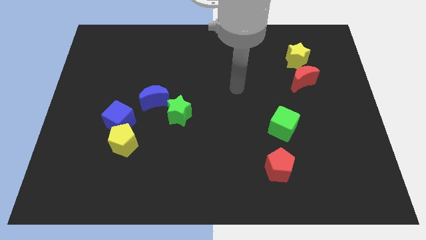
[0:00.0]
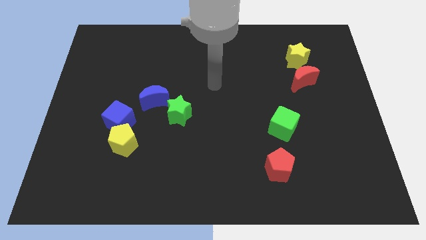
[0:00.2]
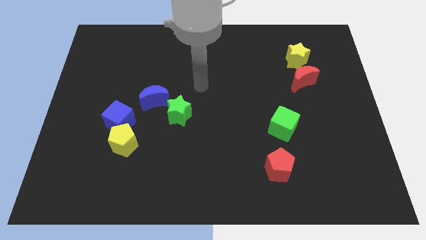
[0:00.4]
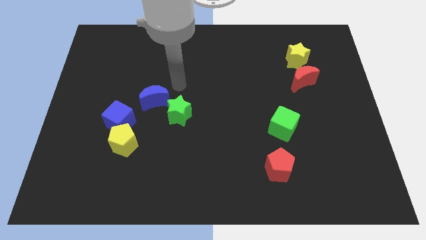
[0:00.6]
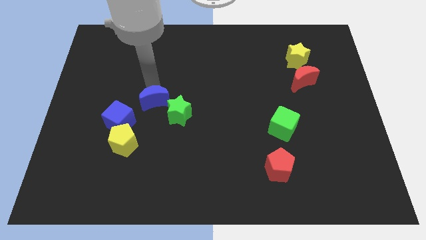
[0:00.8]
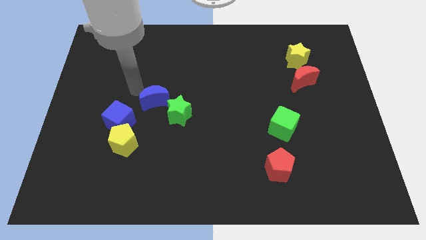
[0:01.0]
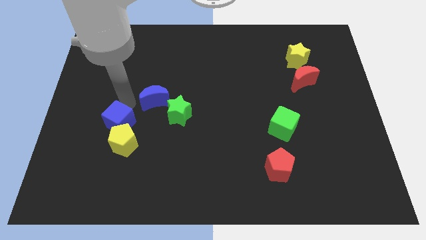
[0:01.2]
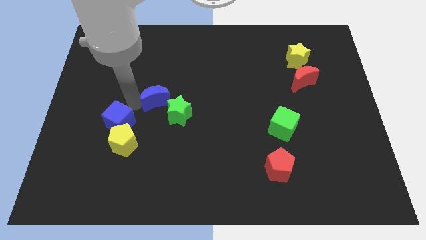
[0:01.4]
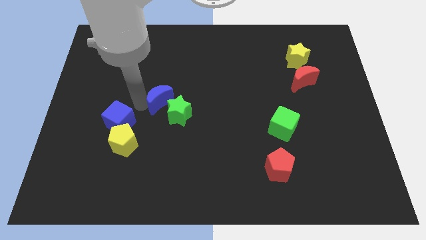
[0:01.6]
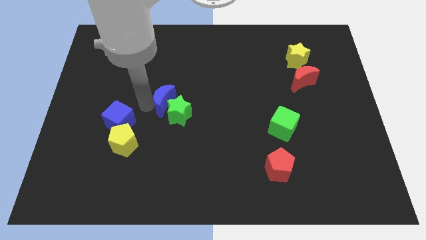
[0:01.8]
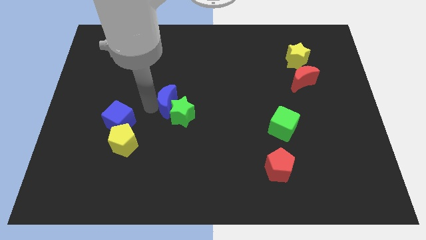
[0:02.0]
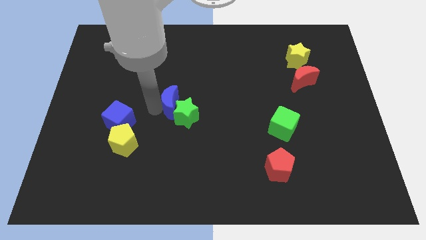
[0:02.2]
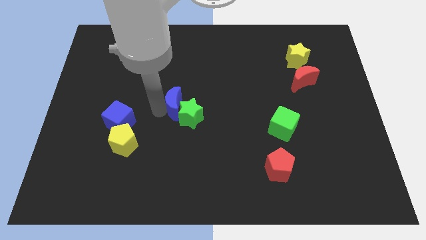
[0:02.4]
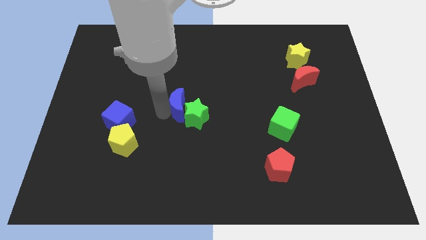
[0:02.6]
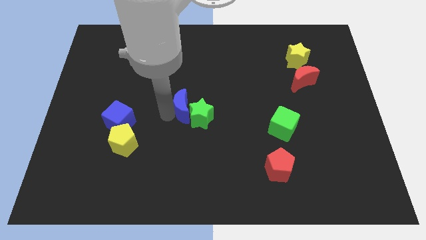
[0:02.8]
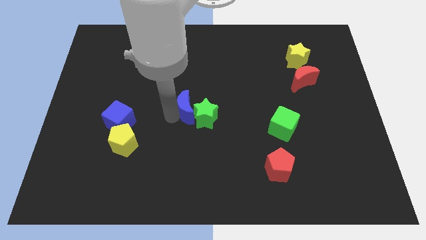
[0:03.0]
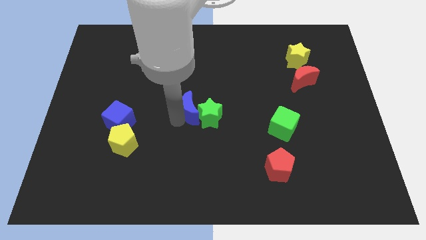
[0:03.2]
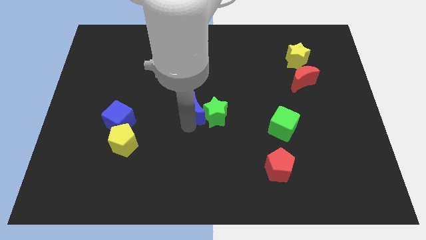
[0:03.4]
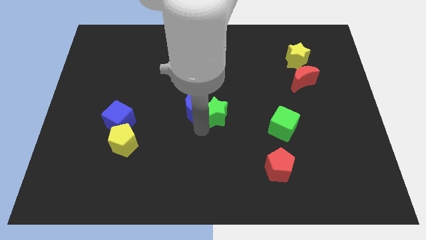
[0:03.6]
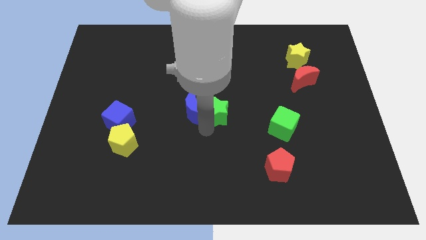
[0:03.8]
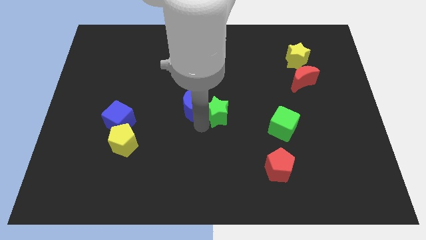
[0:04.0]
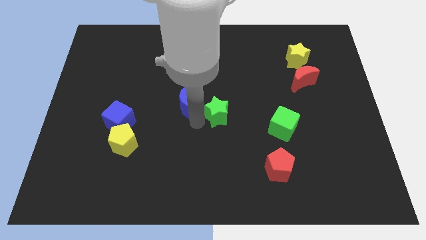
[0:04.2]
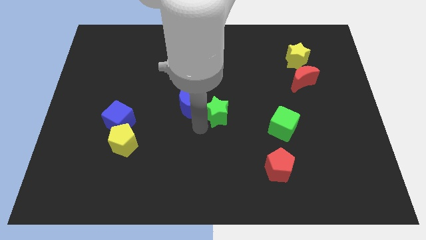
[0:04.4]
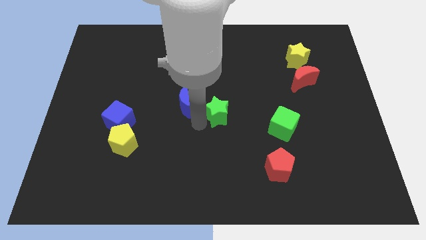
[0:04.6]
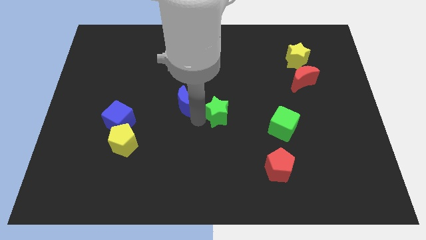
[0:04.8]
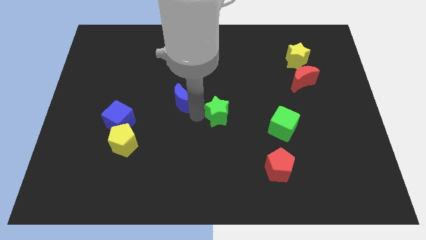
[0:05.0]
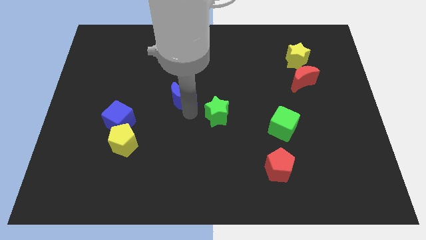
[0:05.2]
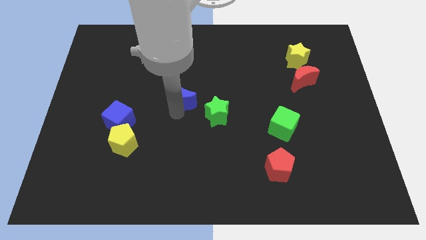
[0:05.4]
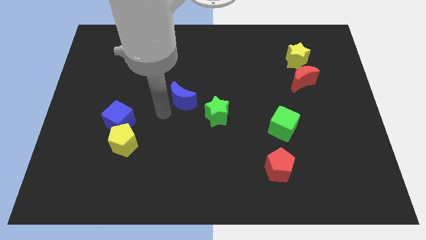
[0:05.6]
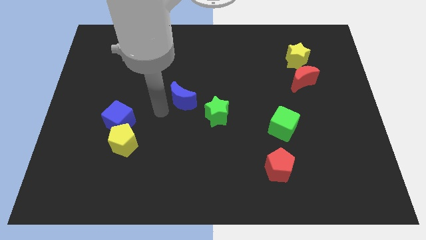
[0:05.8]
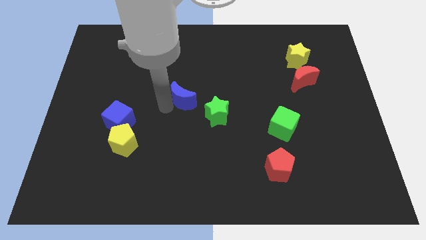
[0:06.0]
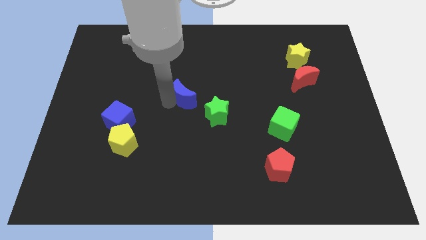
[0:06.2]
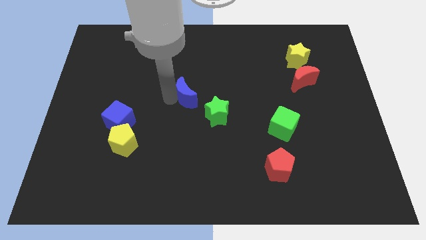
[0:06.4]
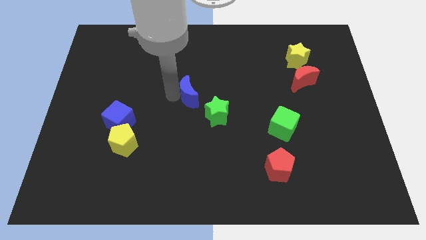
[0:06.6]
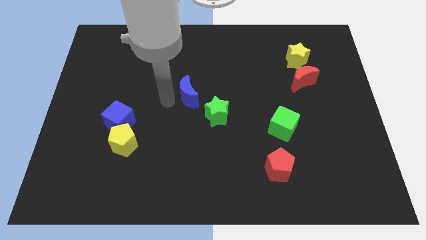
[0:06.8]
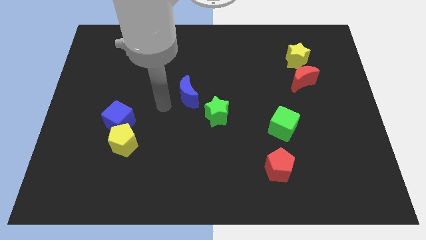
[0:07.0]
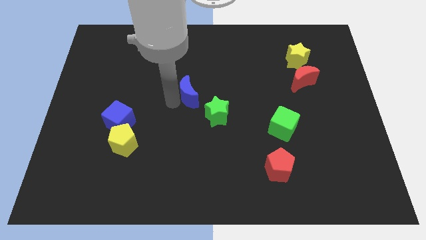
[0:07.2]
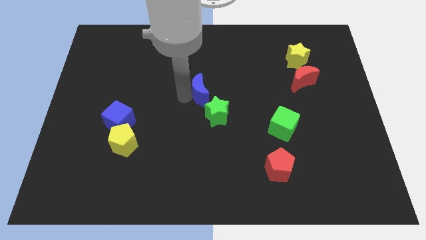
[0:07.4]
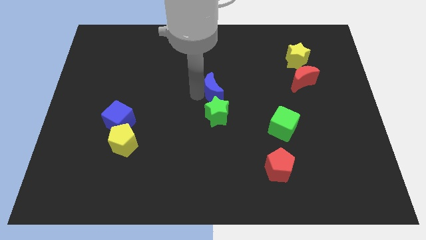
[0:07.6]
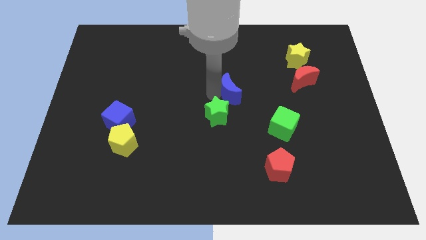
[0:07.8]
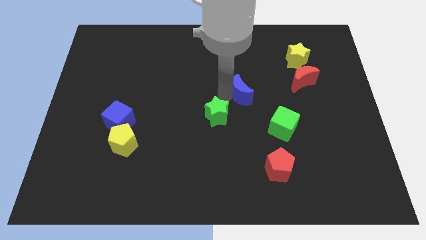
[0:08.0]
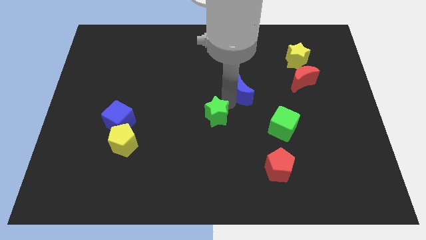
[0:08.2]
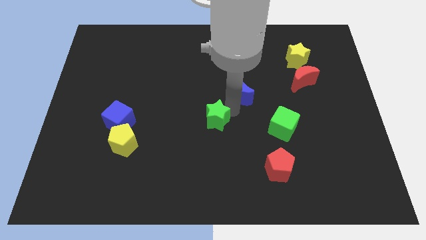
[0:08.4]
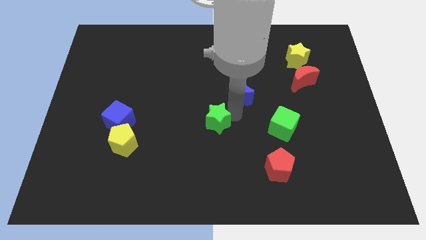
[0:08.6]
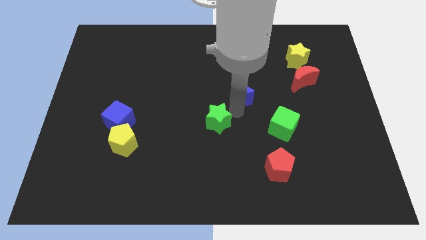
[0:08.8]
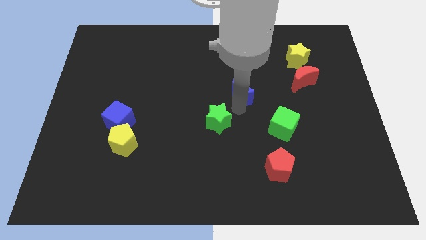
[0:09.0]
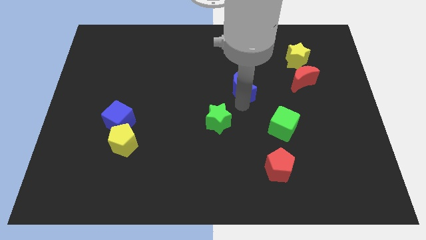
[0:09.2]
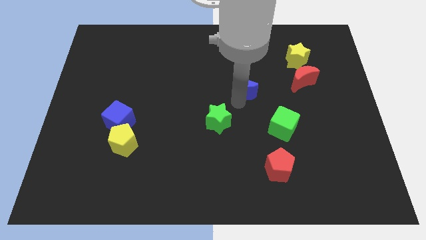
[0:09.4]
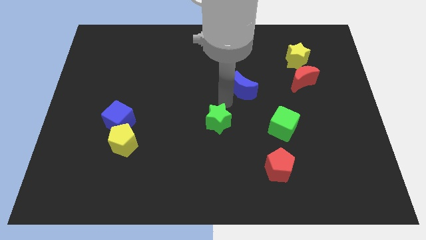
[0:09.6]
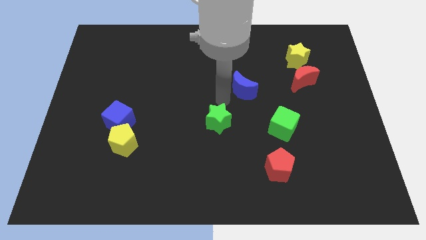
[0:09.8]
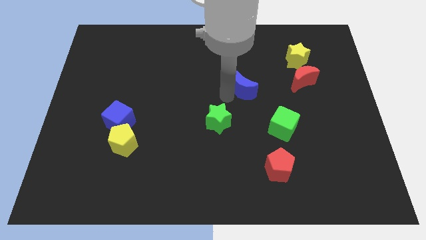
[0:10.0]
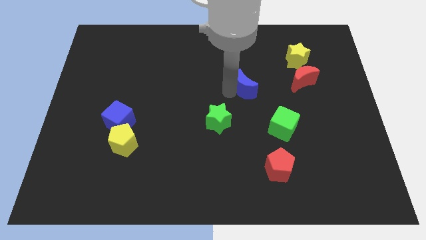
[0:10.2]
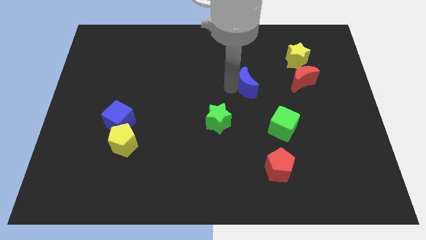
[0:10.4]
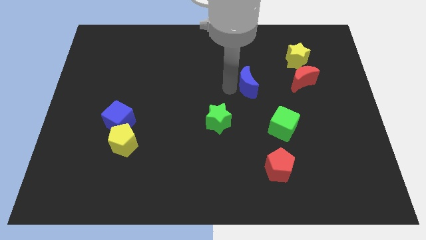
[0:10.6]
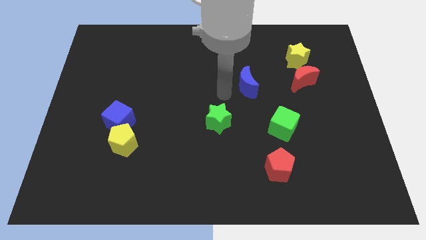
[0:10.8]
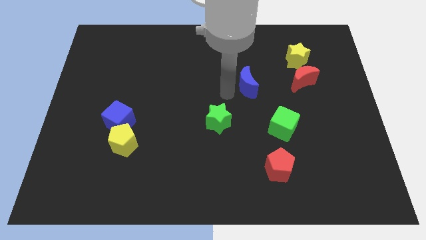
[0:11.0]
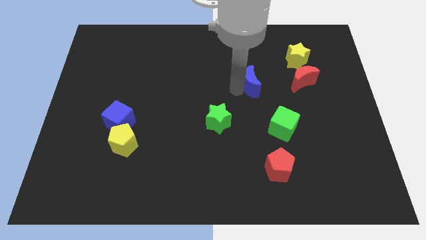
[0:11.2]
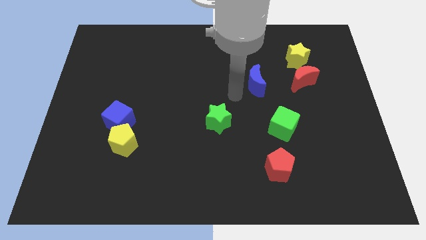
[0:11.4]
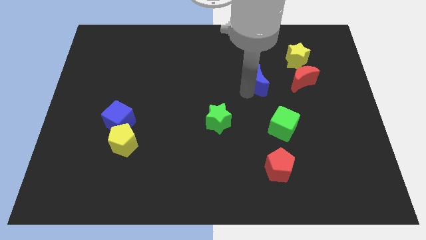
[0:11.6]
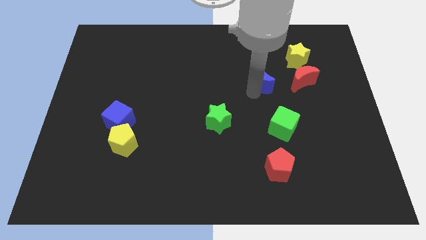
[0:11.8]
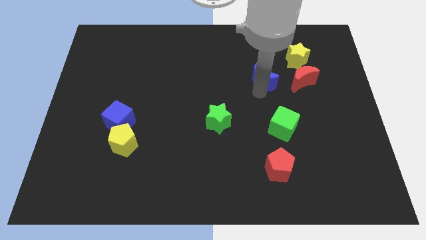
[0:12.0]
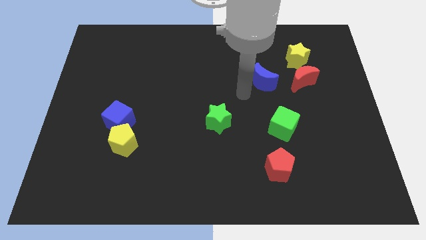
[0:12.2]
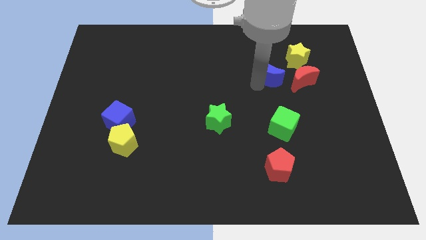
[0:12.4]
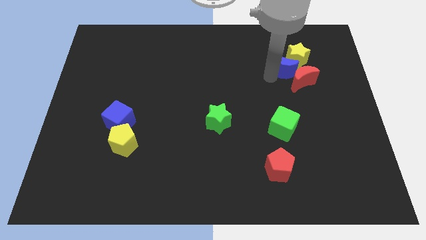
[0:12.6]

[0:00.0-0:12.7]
slide the blue moon close to the yellow star

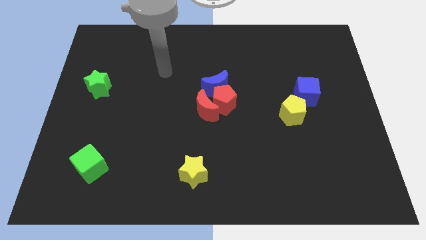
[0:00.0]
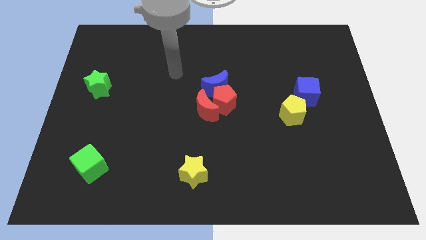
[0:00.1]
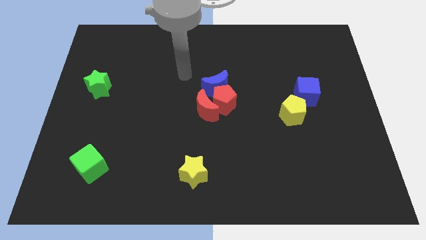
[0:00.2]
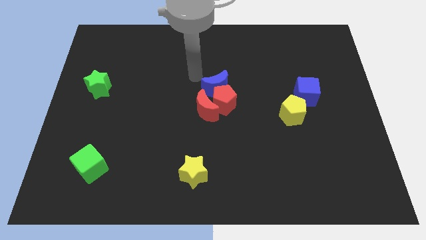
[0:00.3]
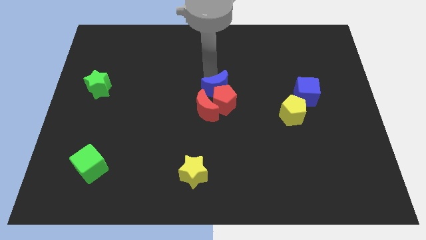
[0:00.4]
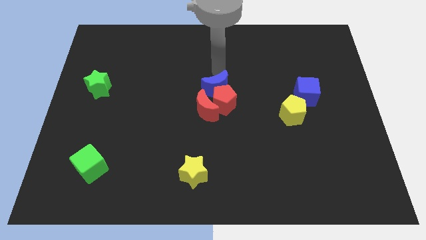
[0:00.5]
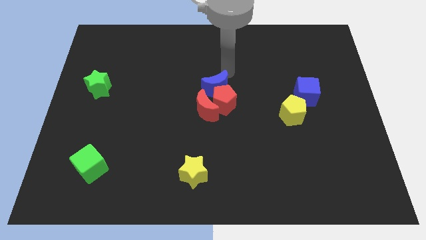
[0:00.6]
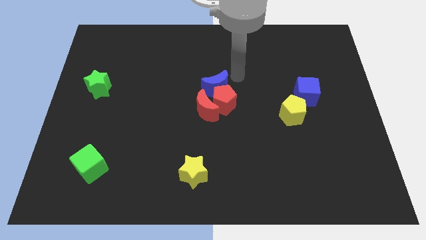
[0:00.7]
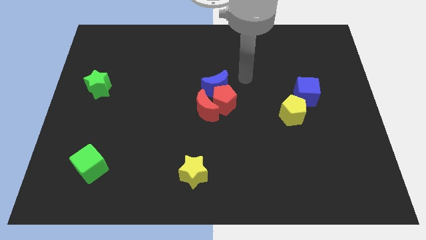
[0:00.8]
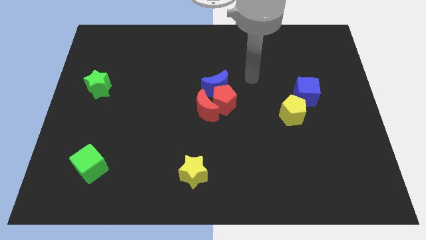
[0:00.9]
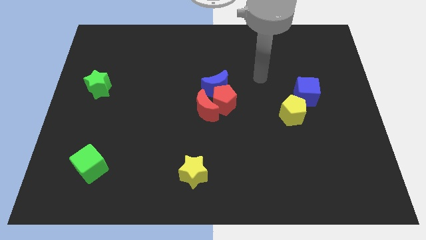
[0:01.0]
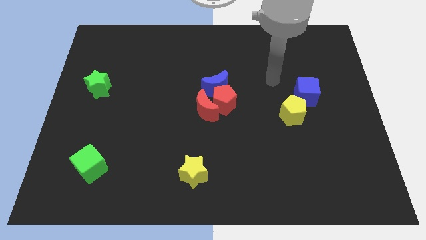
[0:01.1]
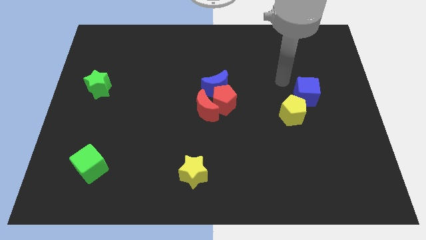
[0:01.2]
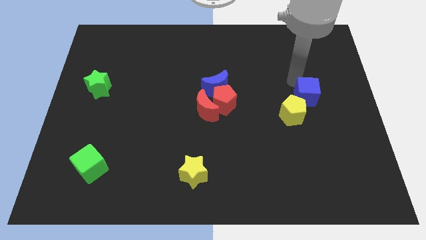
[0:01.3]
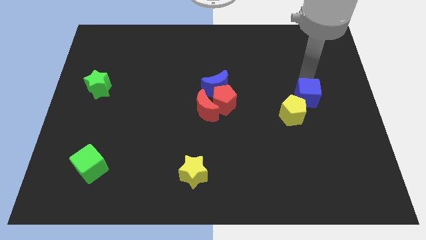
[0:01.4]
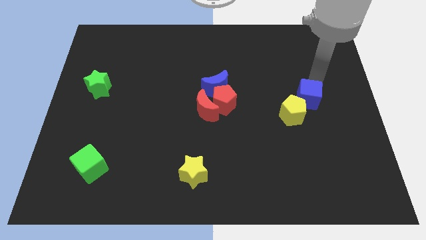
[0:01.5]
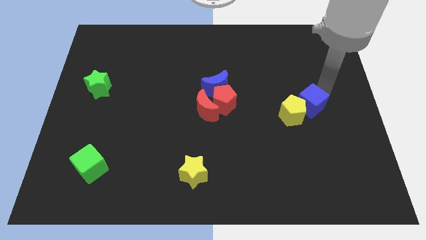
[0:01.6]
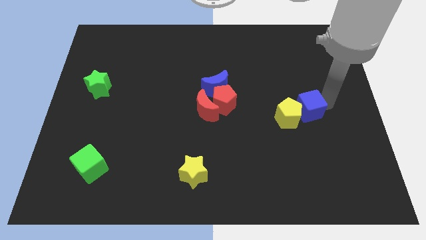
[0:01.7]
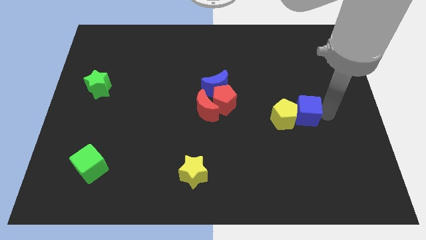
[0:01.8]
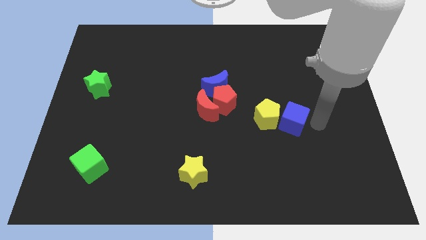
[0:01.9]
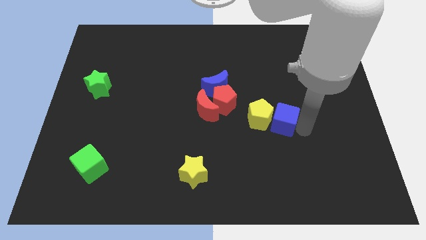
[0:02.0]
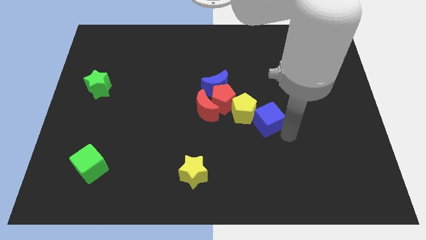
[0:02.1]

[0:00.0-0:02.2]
move the yellow pentagon to the red pentagon
